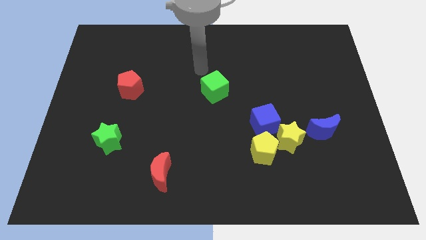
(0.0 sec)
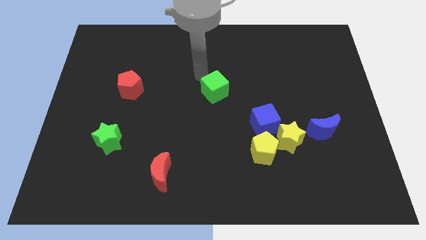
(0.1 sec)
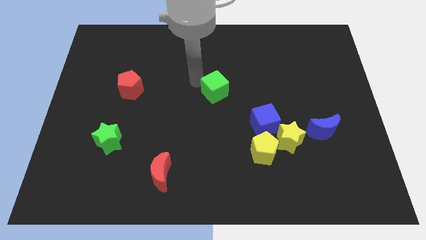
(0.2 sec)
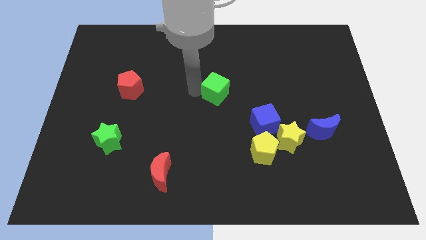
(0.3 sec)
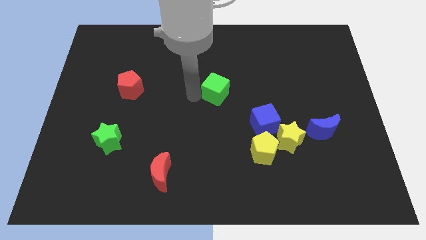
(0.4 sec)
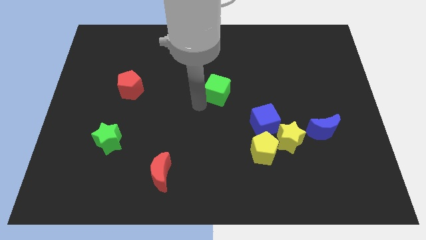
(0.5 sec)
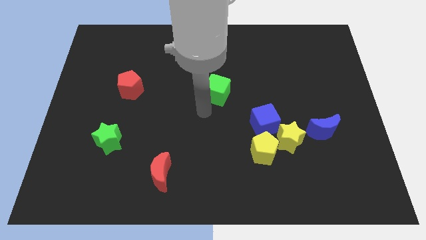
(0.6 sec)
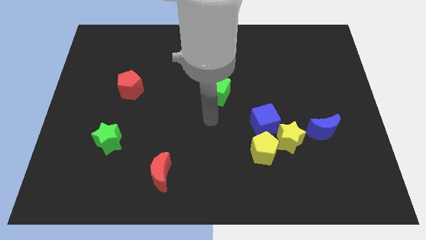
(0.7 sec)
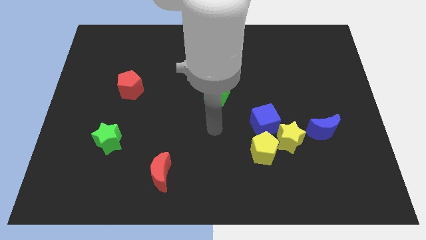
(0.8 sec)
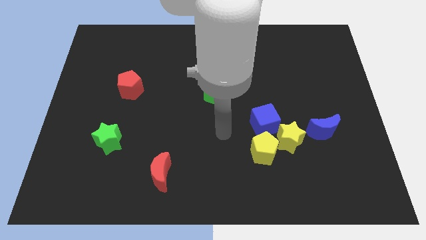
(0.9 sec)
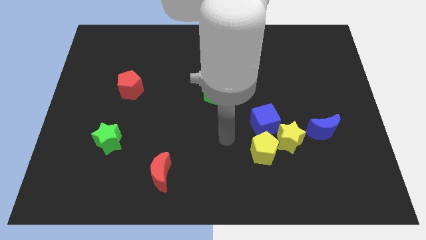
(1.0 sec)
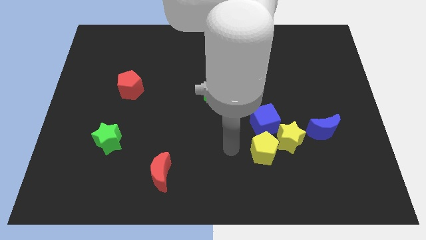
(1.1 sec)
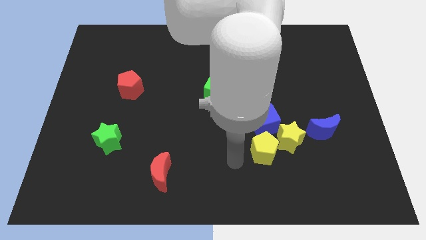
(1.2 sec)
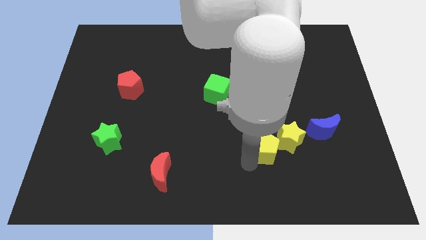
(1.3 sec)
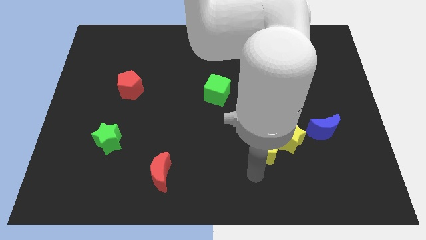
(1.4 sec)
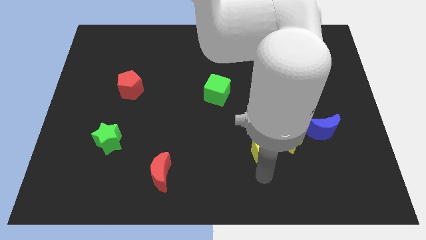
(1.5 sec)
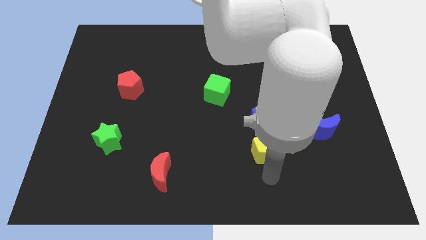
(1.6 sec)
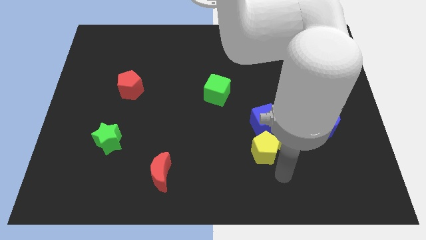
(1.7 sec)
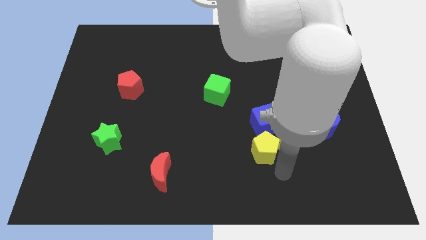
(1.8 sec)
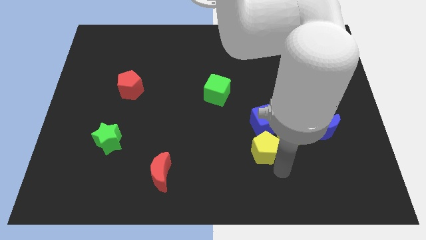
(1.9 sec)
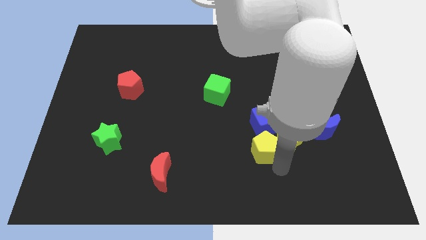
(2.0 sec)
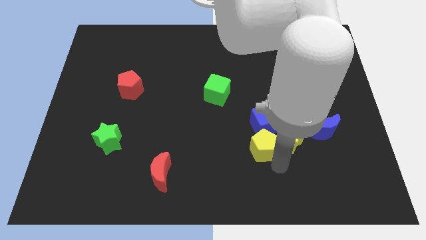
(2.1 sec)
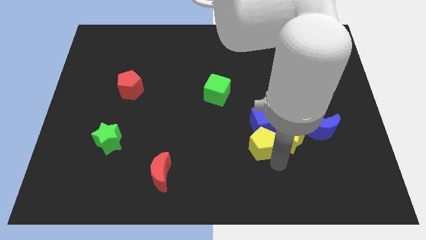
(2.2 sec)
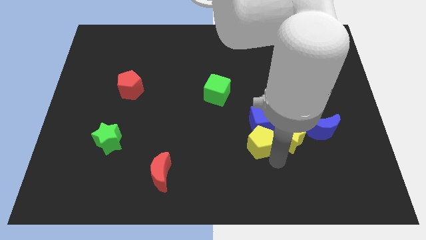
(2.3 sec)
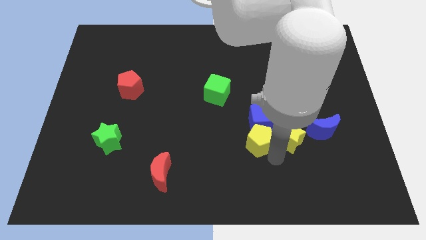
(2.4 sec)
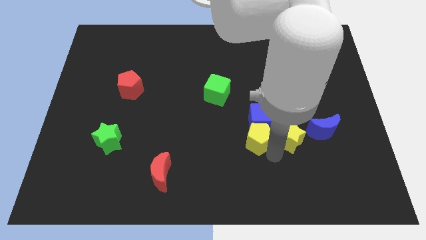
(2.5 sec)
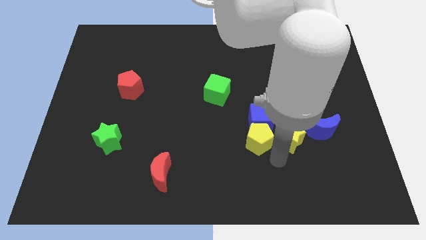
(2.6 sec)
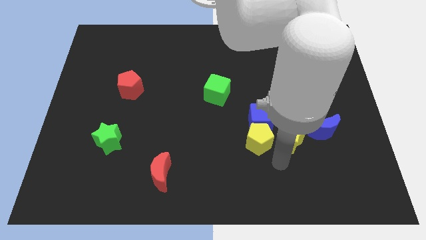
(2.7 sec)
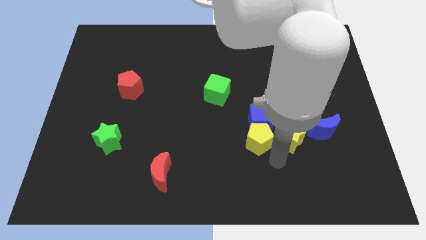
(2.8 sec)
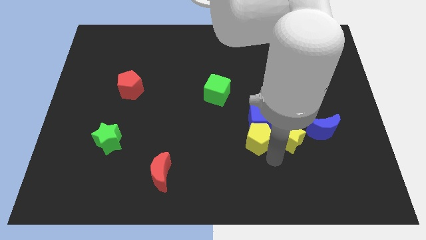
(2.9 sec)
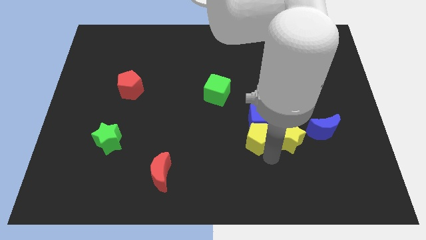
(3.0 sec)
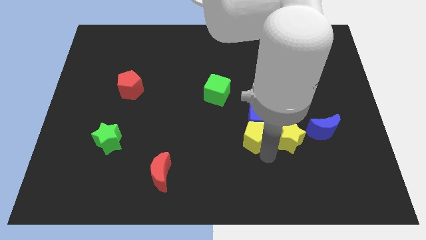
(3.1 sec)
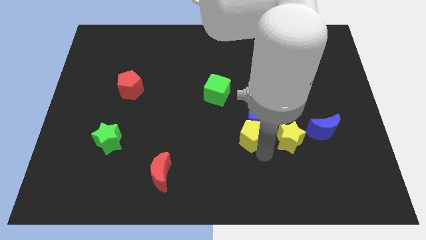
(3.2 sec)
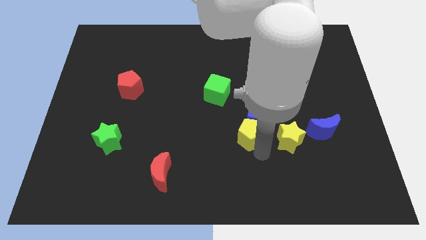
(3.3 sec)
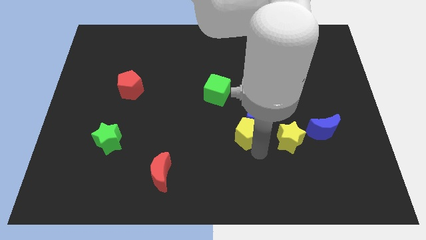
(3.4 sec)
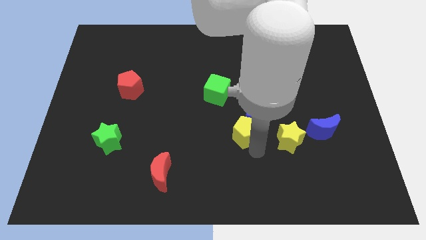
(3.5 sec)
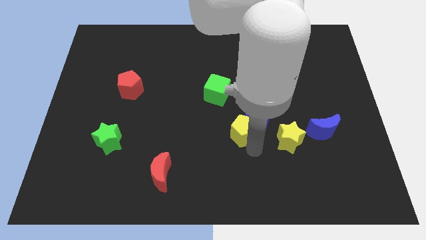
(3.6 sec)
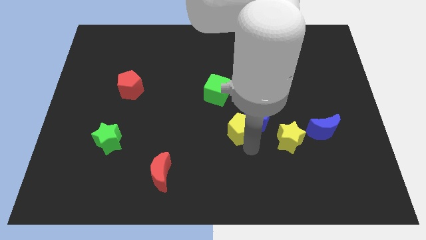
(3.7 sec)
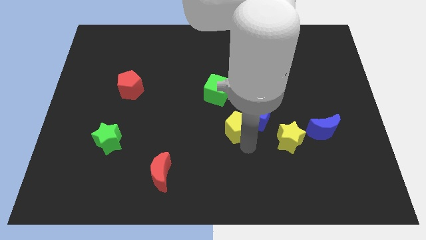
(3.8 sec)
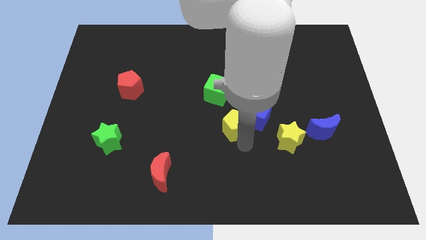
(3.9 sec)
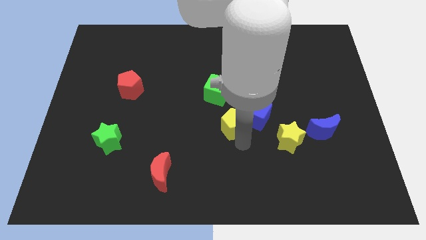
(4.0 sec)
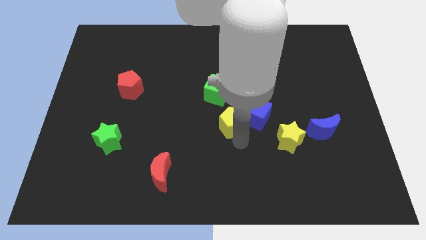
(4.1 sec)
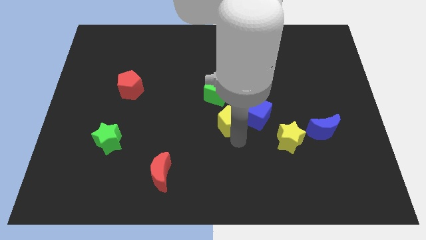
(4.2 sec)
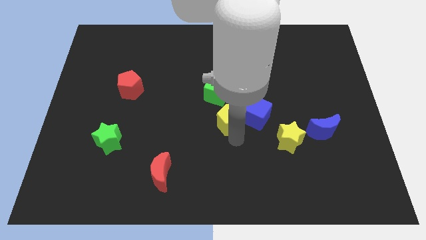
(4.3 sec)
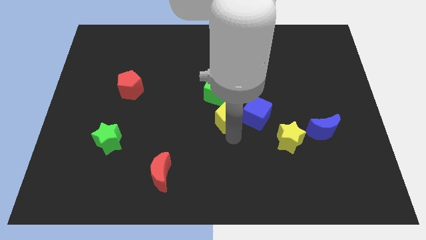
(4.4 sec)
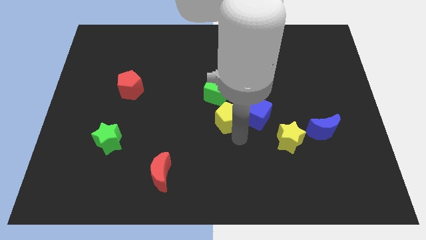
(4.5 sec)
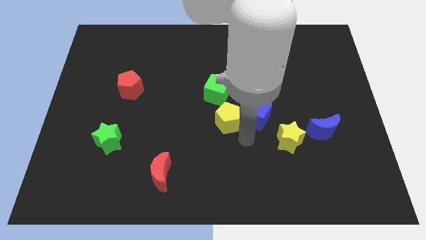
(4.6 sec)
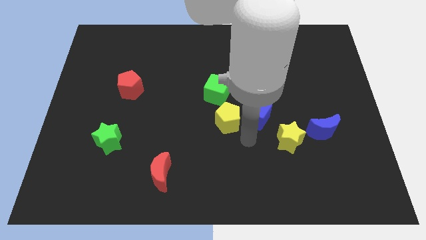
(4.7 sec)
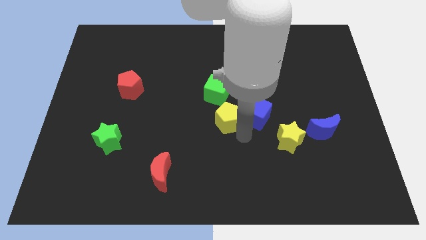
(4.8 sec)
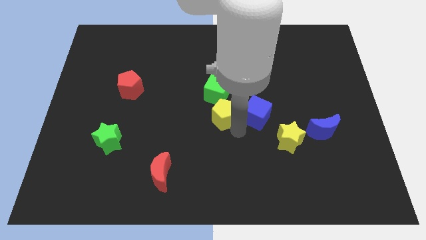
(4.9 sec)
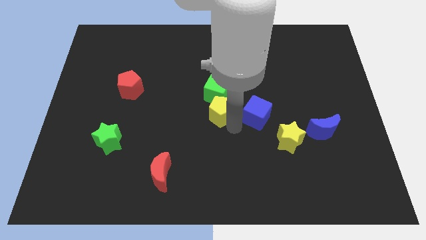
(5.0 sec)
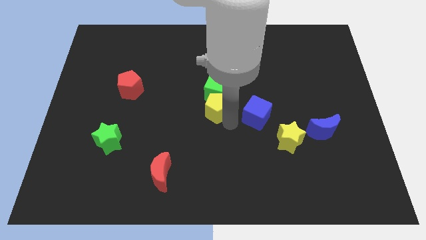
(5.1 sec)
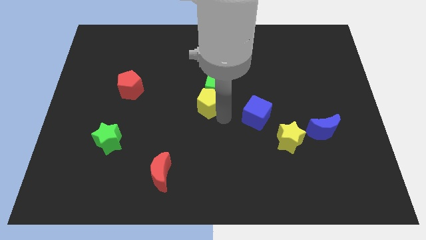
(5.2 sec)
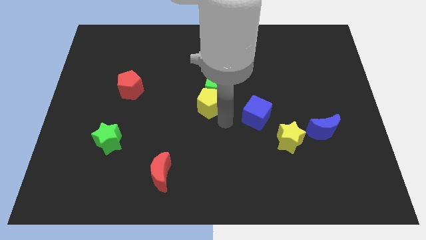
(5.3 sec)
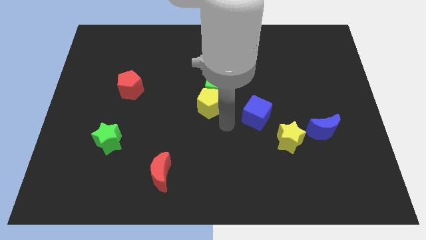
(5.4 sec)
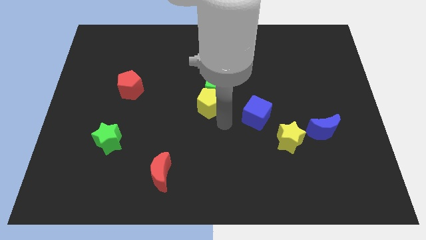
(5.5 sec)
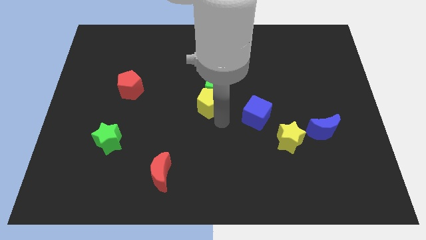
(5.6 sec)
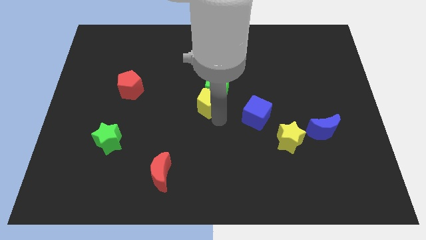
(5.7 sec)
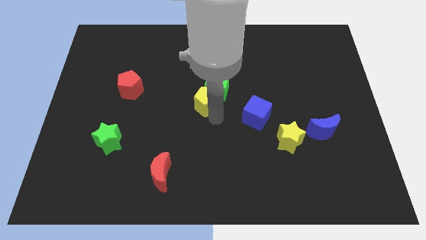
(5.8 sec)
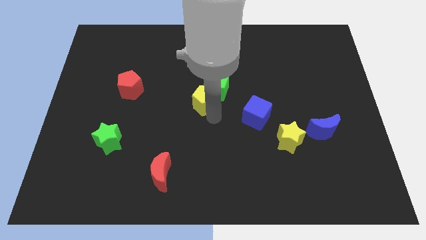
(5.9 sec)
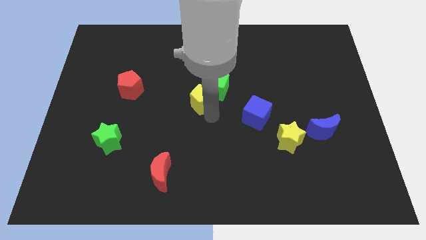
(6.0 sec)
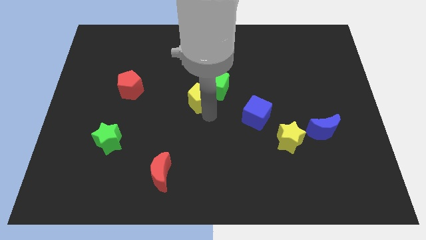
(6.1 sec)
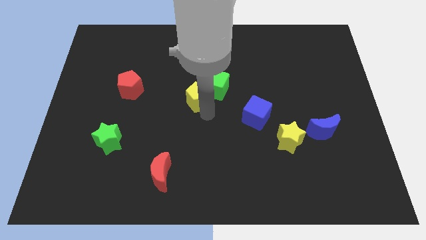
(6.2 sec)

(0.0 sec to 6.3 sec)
slide the yellow pentagon up and to the left diagonally

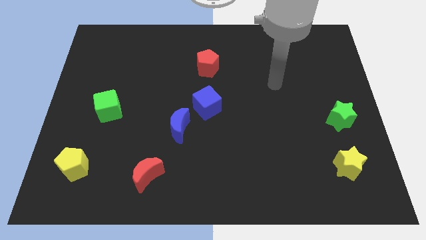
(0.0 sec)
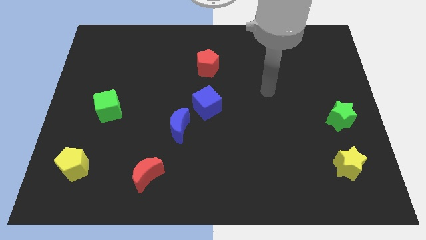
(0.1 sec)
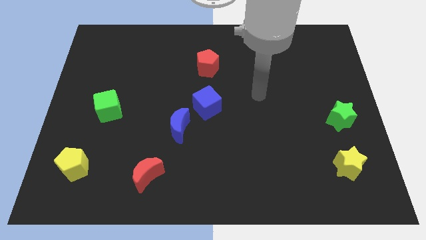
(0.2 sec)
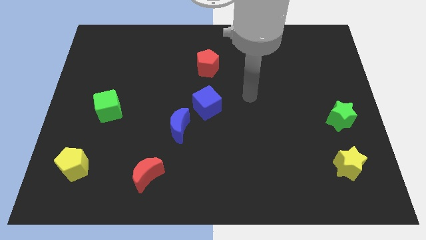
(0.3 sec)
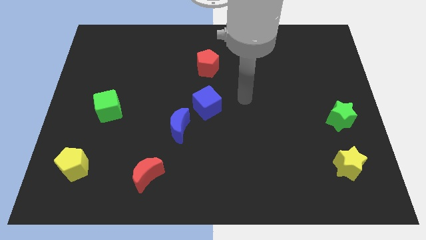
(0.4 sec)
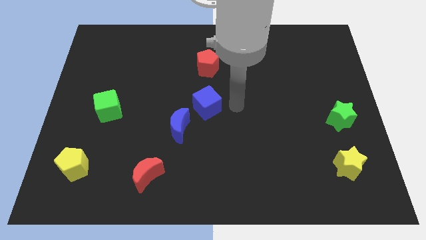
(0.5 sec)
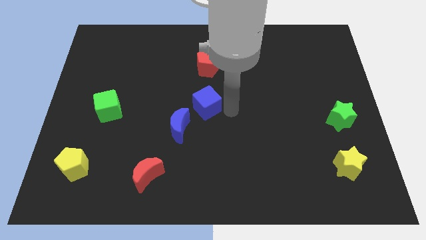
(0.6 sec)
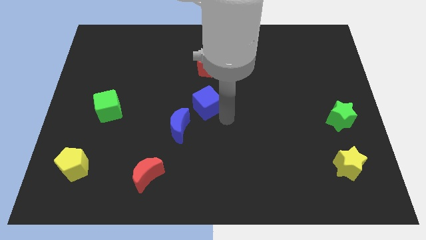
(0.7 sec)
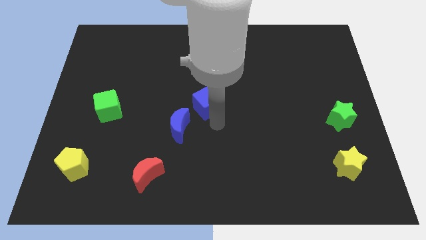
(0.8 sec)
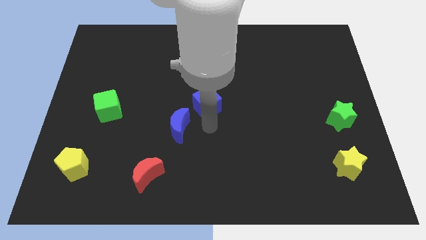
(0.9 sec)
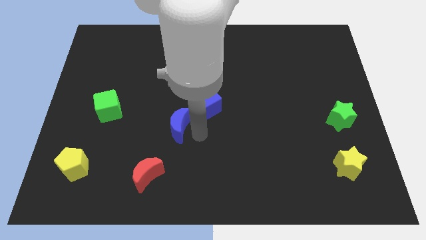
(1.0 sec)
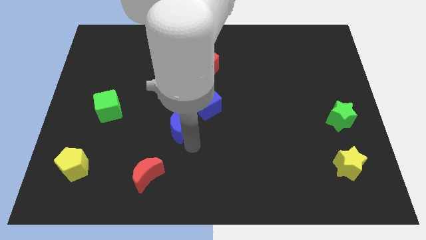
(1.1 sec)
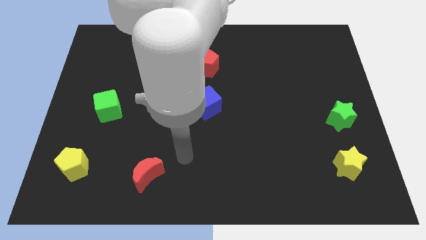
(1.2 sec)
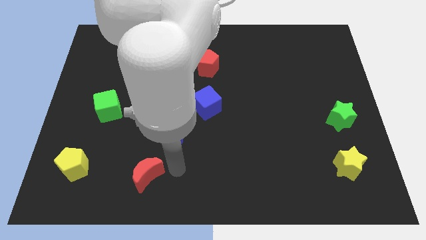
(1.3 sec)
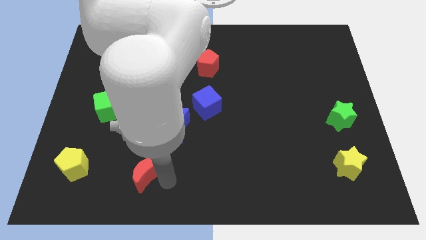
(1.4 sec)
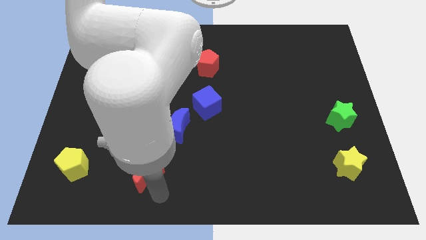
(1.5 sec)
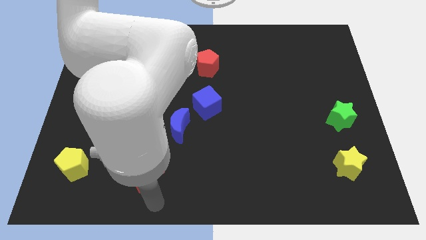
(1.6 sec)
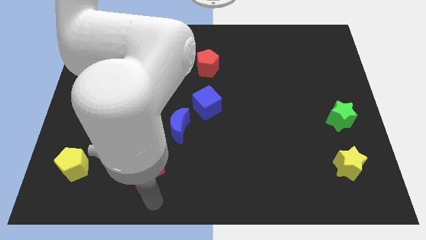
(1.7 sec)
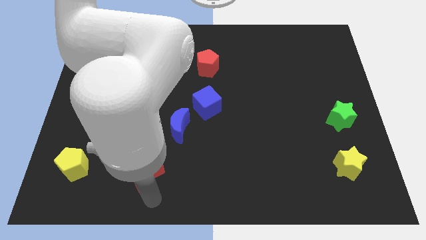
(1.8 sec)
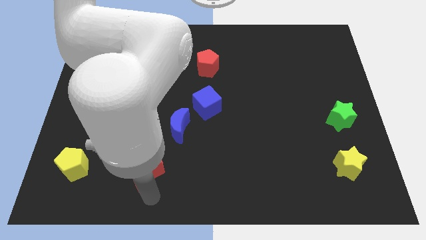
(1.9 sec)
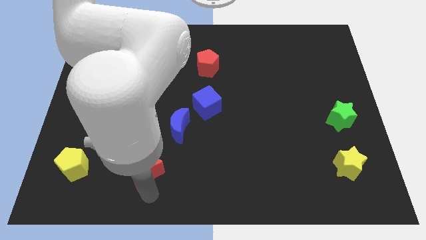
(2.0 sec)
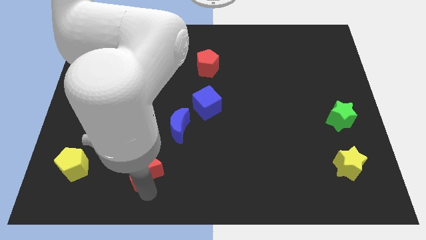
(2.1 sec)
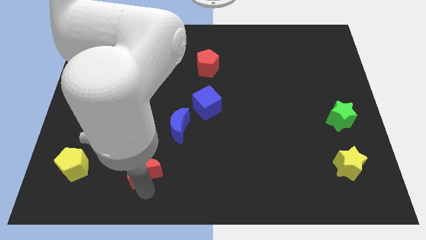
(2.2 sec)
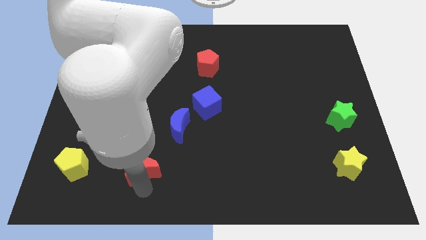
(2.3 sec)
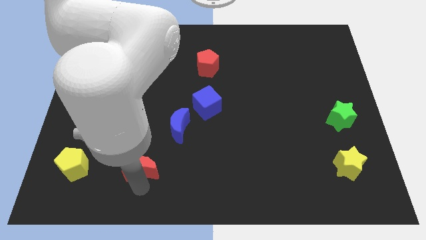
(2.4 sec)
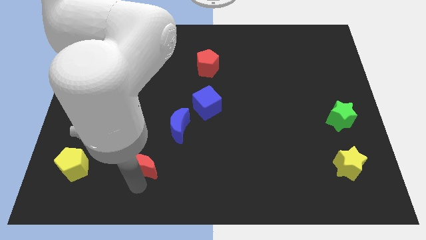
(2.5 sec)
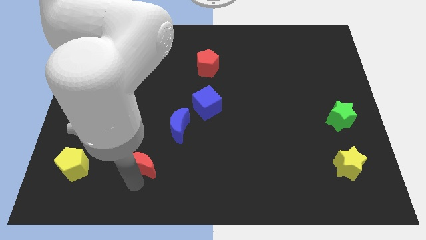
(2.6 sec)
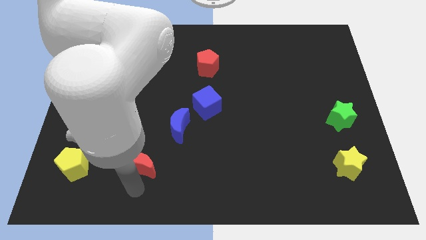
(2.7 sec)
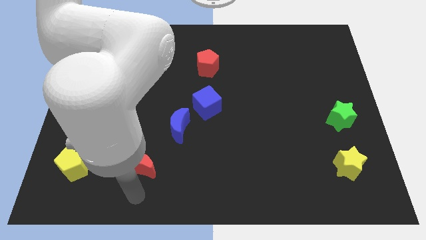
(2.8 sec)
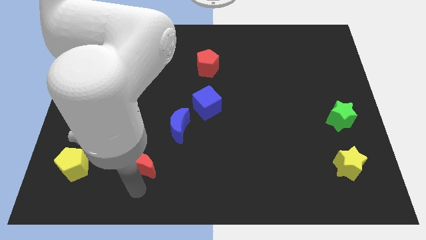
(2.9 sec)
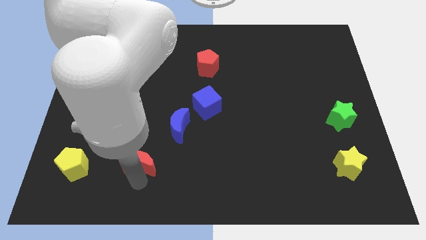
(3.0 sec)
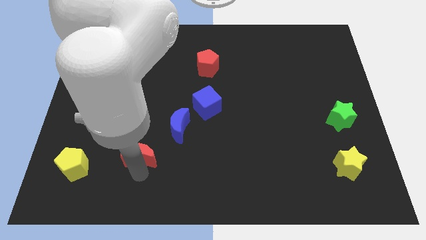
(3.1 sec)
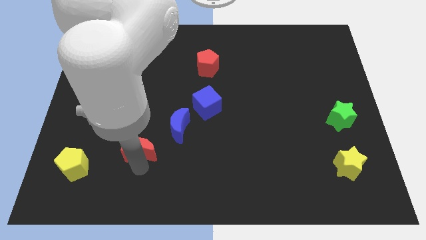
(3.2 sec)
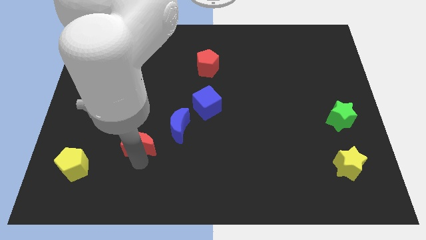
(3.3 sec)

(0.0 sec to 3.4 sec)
push the red moon up a bit
